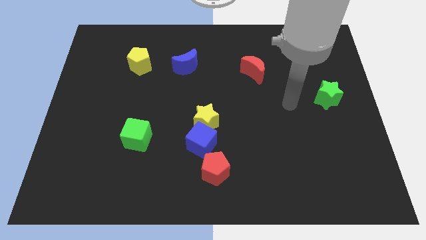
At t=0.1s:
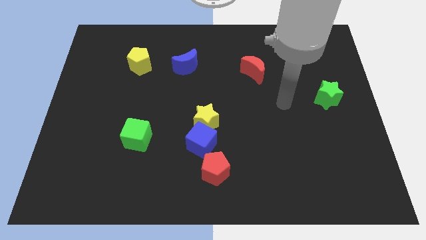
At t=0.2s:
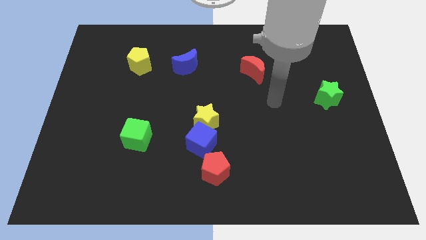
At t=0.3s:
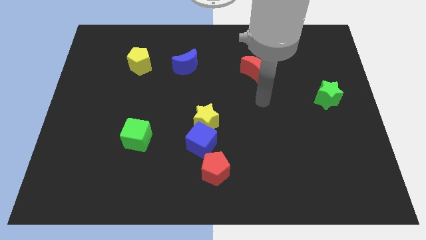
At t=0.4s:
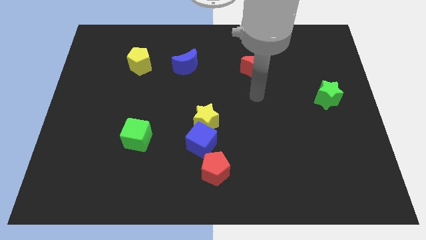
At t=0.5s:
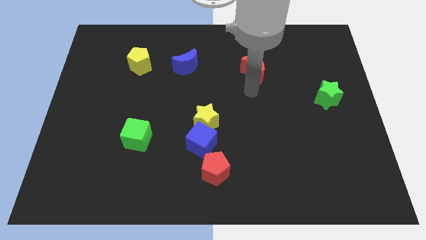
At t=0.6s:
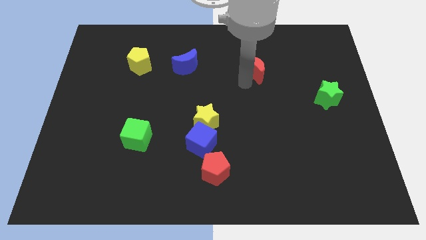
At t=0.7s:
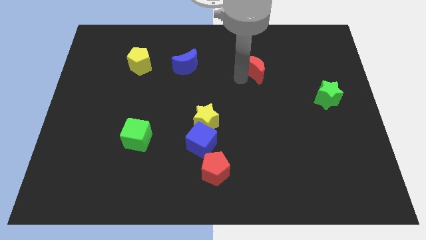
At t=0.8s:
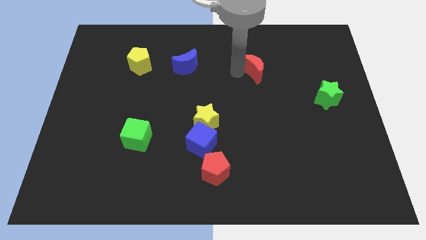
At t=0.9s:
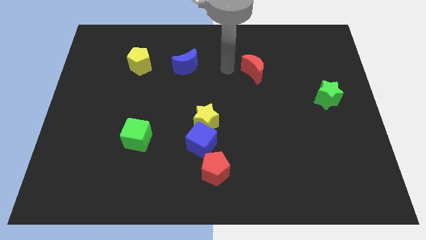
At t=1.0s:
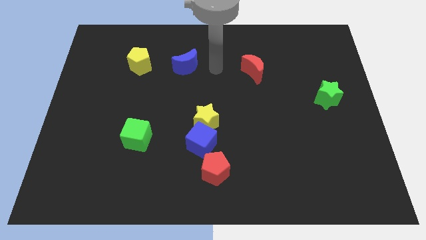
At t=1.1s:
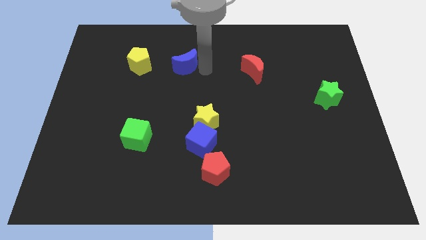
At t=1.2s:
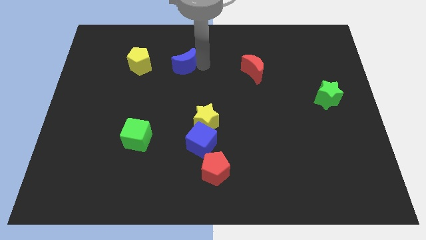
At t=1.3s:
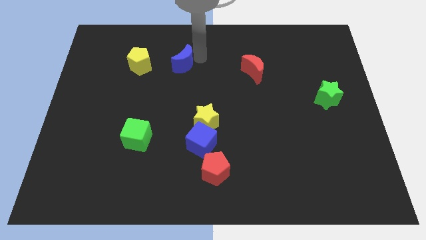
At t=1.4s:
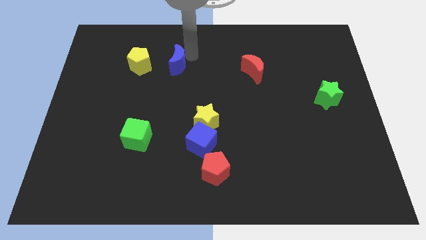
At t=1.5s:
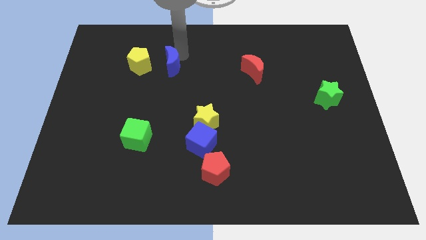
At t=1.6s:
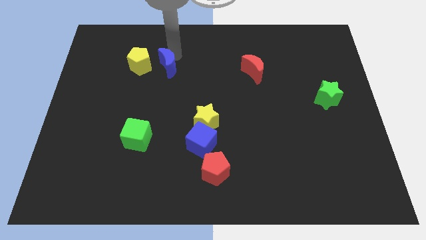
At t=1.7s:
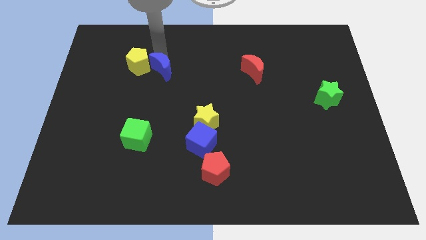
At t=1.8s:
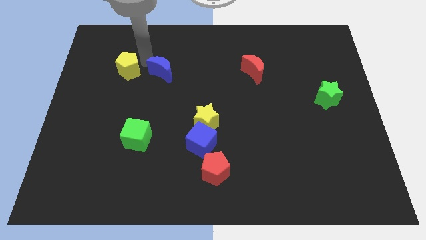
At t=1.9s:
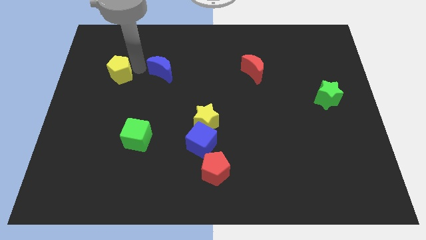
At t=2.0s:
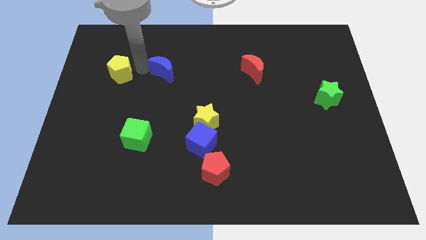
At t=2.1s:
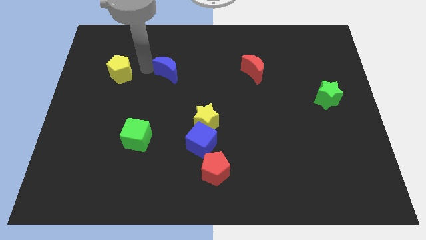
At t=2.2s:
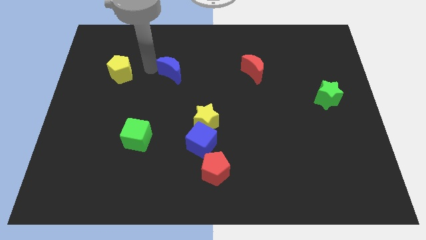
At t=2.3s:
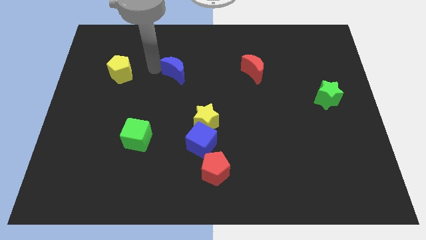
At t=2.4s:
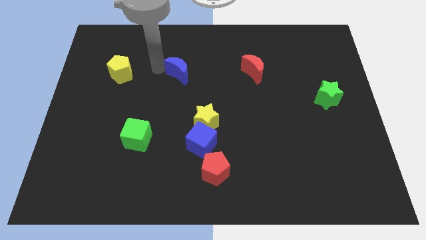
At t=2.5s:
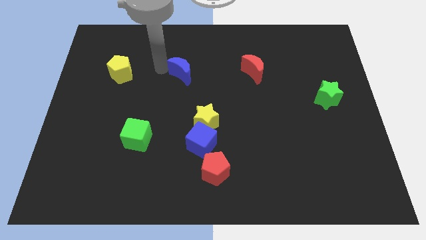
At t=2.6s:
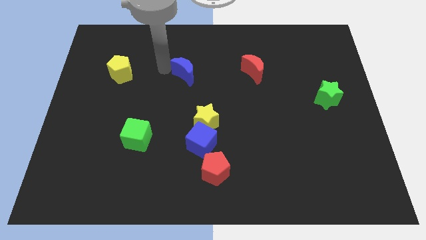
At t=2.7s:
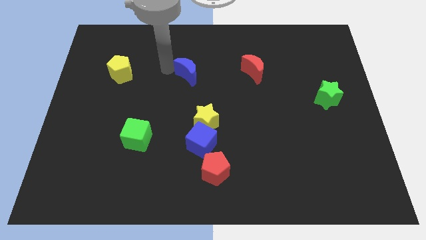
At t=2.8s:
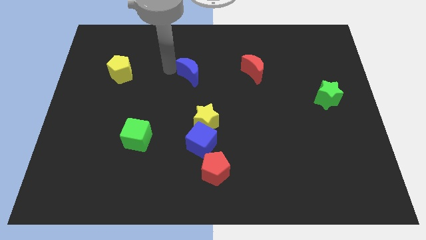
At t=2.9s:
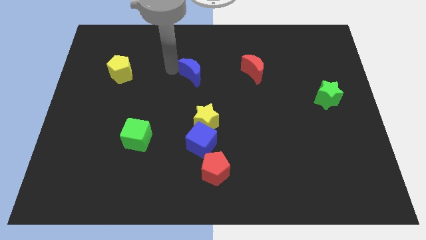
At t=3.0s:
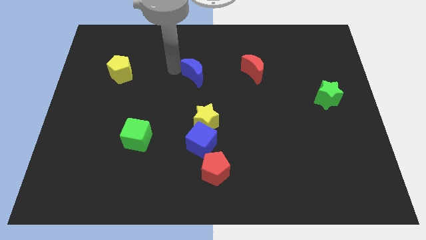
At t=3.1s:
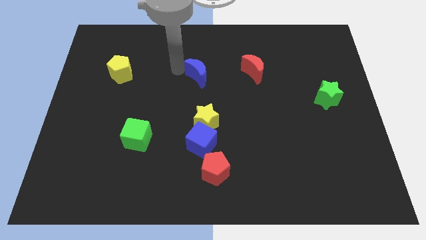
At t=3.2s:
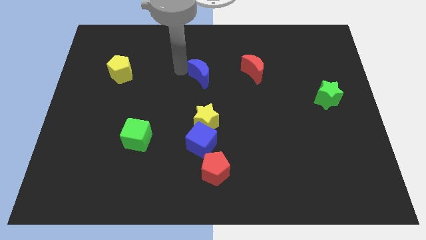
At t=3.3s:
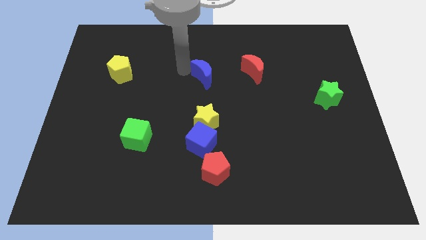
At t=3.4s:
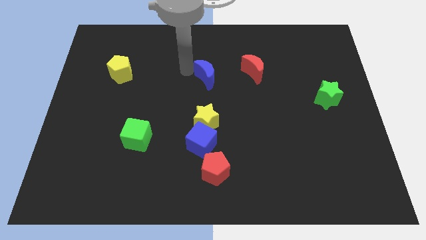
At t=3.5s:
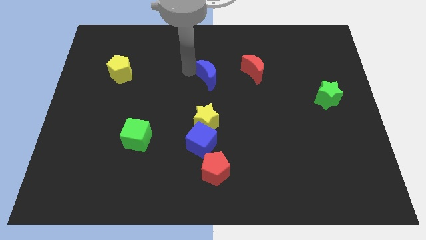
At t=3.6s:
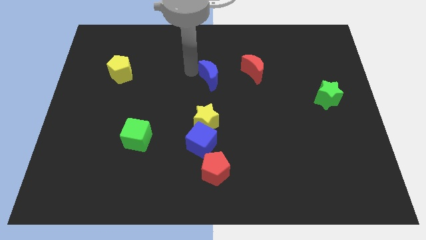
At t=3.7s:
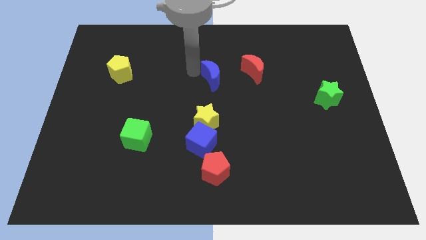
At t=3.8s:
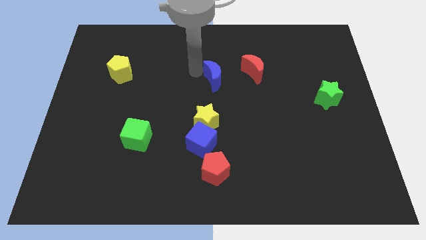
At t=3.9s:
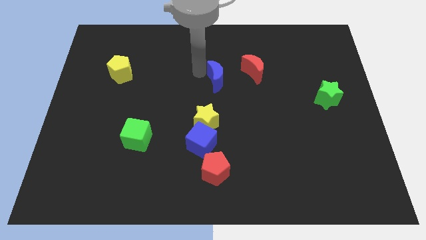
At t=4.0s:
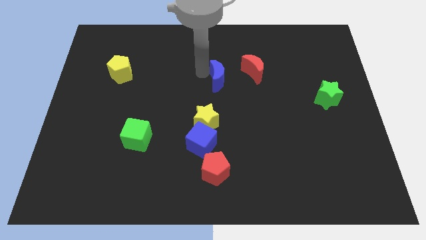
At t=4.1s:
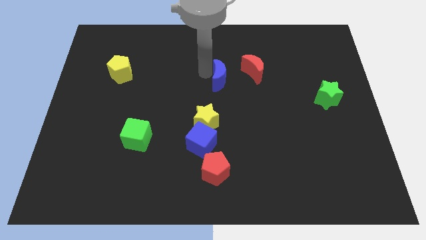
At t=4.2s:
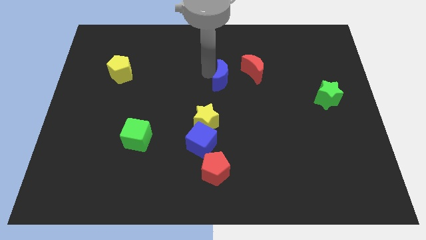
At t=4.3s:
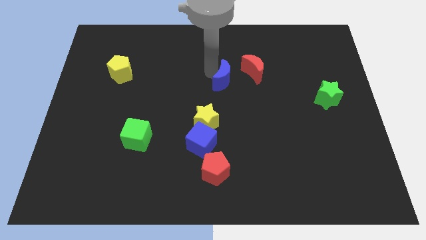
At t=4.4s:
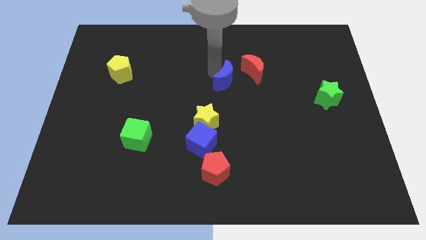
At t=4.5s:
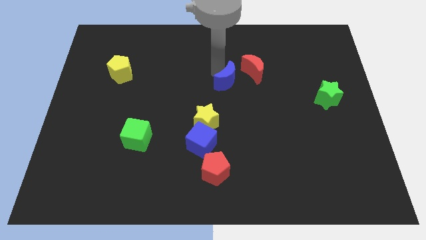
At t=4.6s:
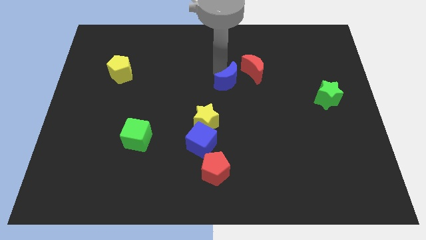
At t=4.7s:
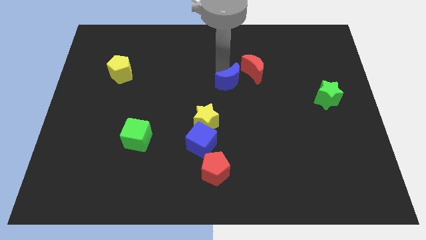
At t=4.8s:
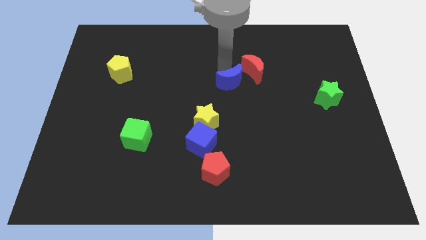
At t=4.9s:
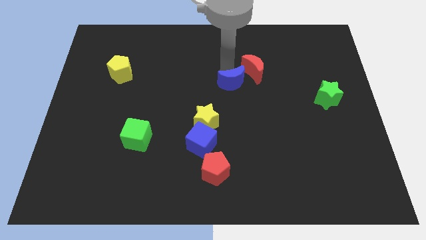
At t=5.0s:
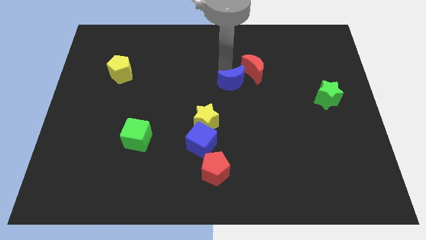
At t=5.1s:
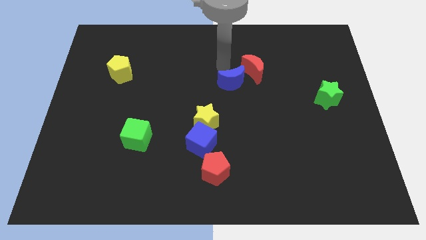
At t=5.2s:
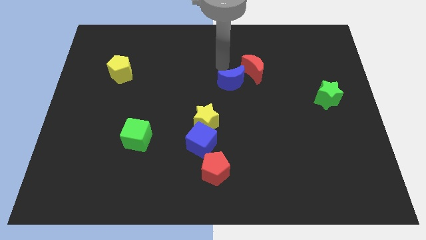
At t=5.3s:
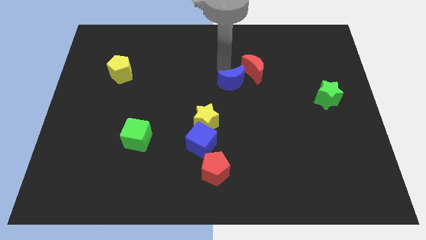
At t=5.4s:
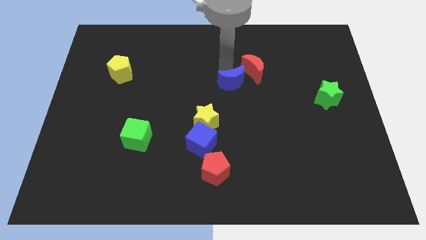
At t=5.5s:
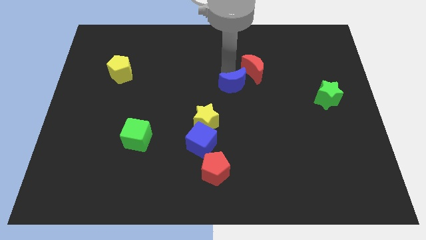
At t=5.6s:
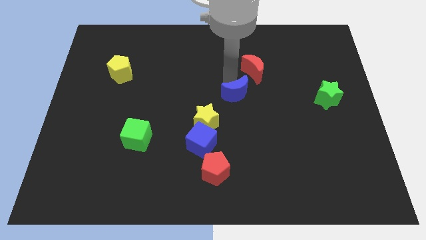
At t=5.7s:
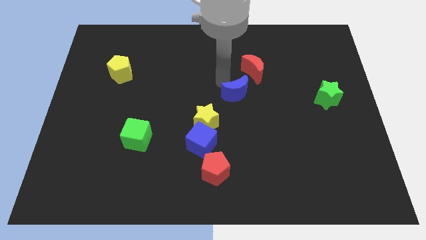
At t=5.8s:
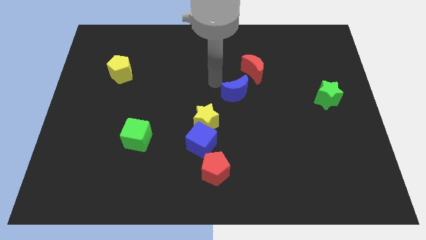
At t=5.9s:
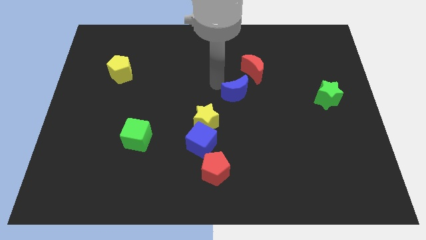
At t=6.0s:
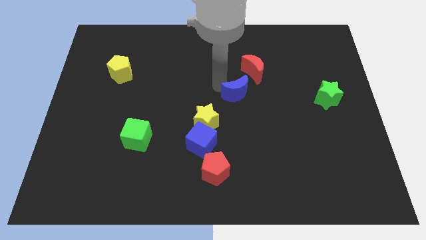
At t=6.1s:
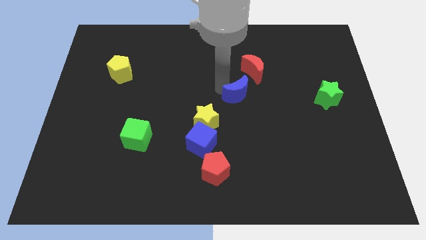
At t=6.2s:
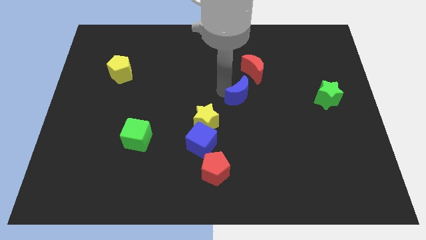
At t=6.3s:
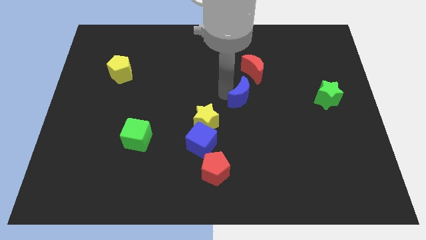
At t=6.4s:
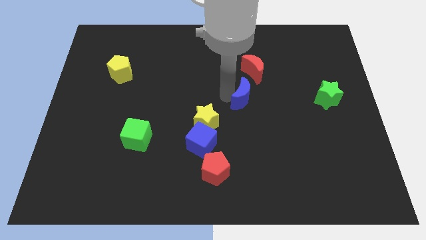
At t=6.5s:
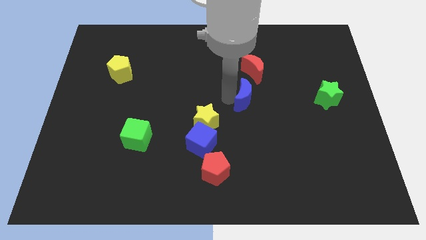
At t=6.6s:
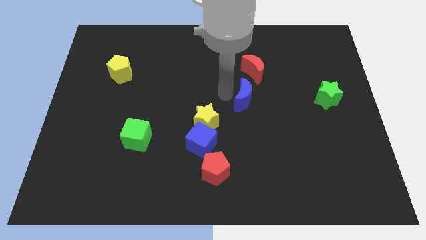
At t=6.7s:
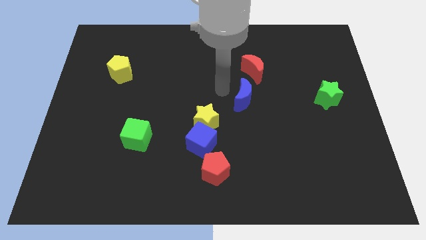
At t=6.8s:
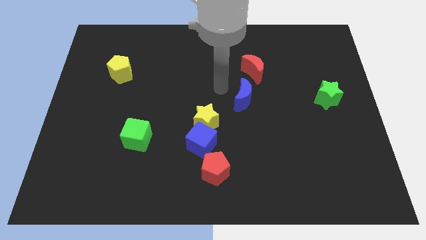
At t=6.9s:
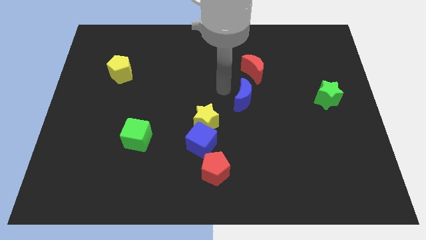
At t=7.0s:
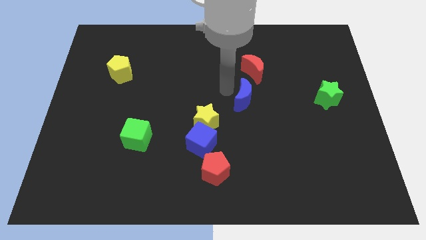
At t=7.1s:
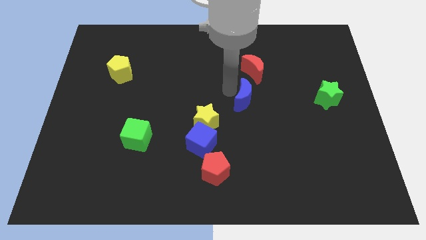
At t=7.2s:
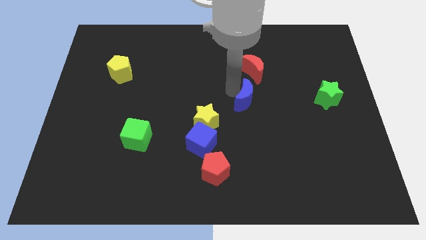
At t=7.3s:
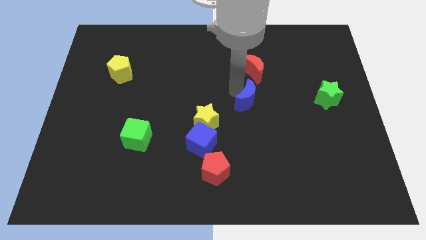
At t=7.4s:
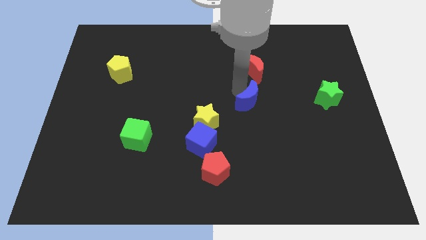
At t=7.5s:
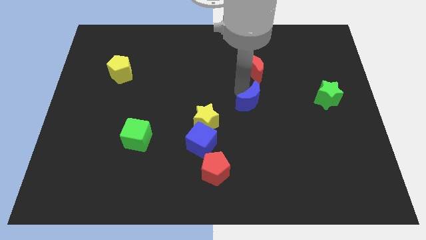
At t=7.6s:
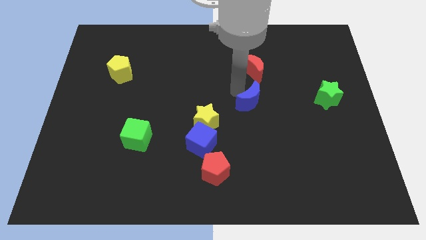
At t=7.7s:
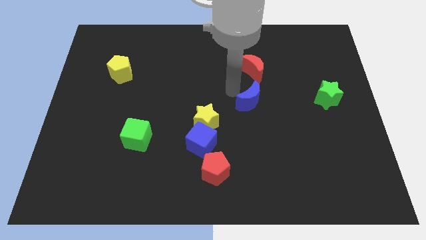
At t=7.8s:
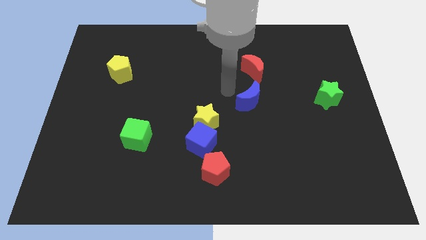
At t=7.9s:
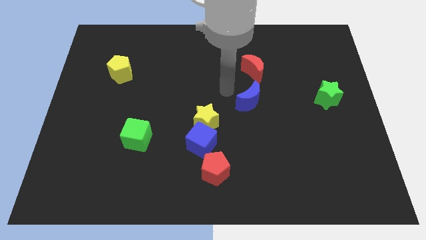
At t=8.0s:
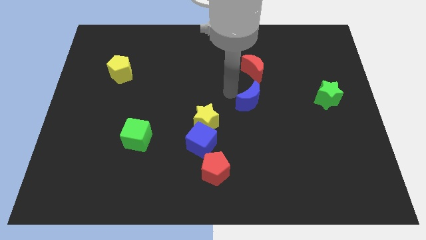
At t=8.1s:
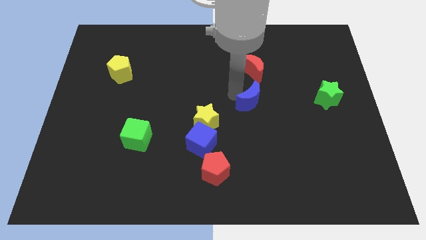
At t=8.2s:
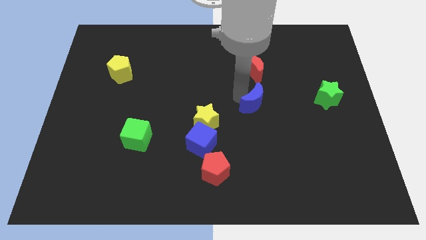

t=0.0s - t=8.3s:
push the blue moon diagonally downwards and right
